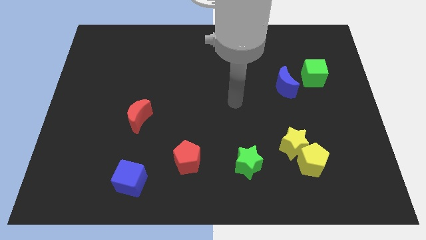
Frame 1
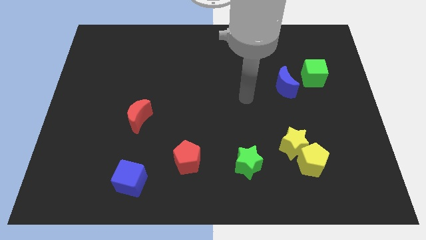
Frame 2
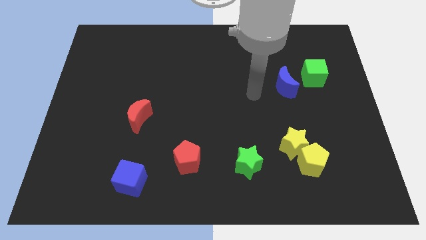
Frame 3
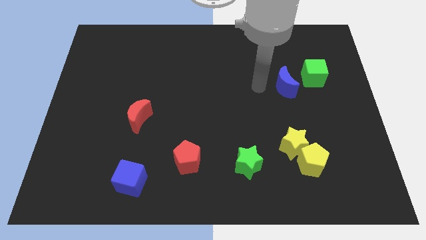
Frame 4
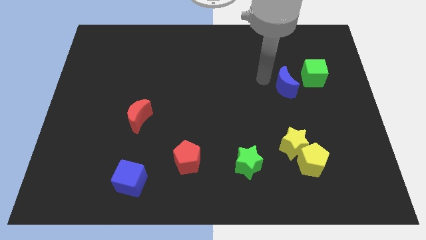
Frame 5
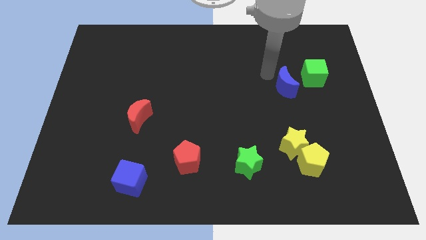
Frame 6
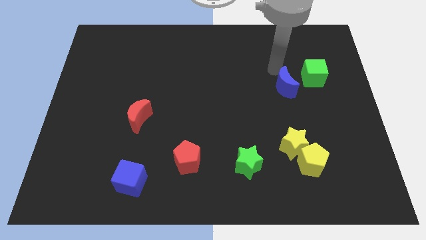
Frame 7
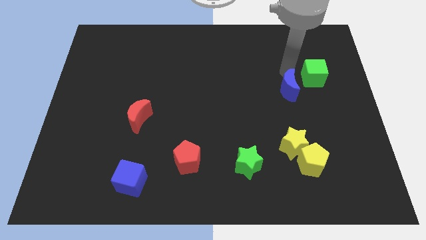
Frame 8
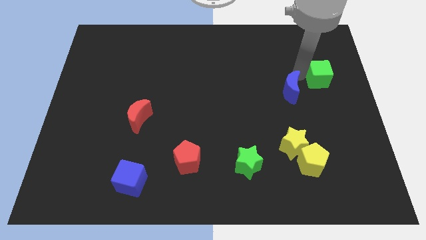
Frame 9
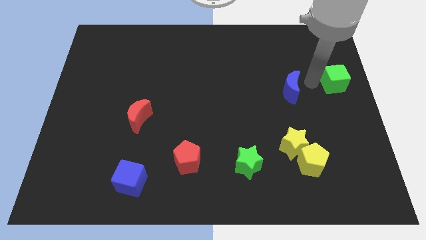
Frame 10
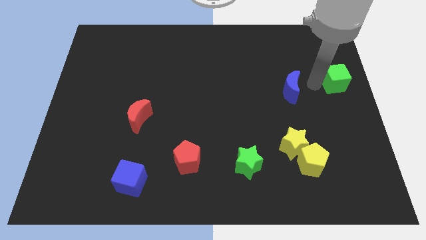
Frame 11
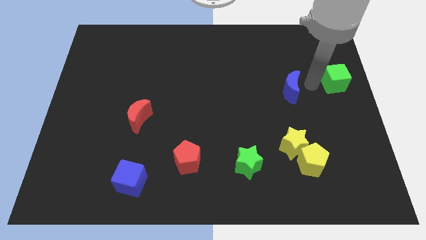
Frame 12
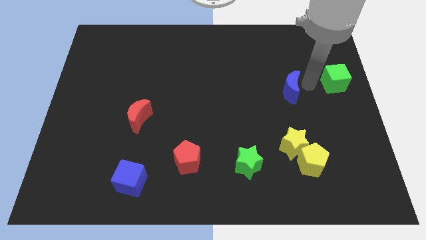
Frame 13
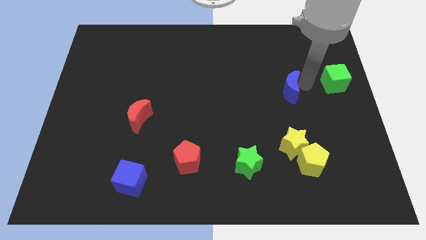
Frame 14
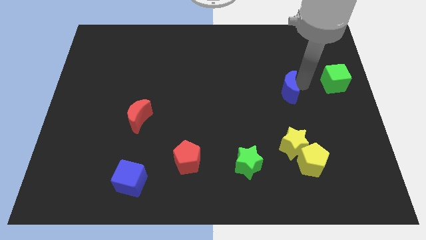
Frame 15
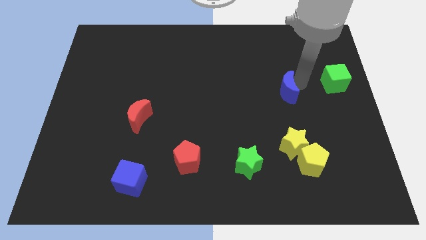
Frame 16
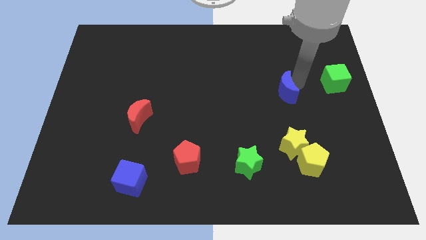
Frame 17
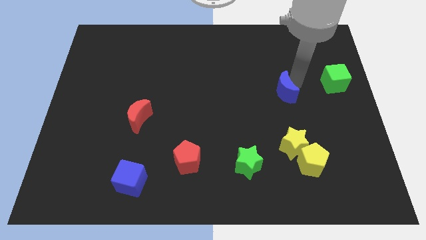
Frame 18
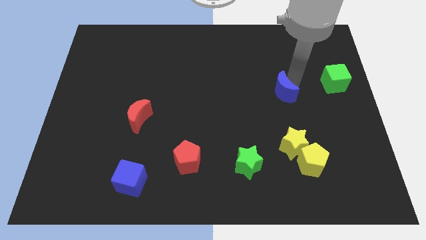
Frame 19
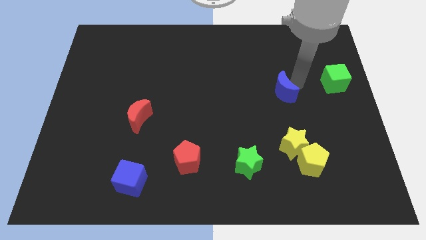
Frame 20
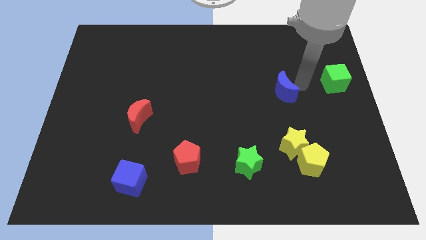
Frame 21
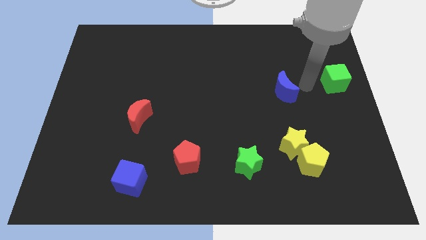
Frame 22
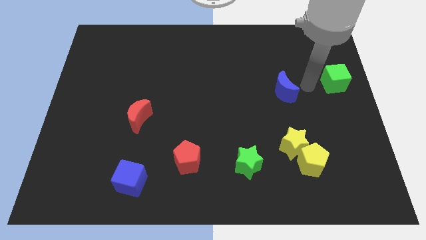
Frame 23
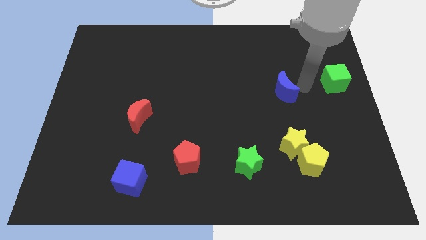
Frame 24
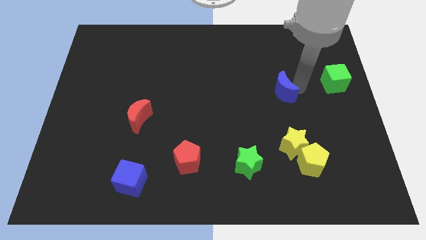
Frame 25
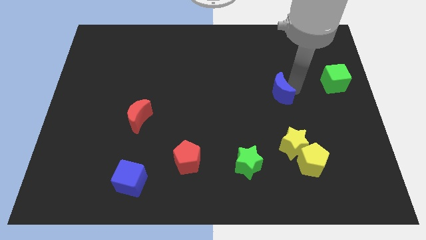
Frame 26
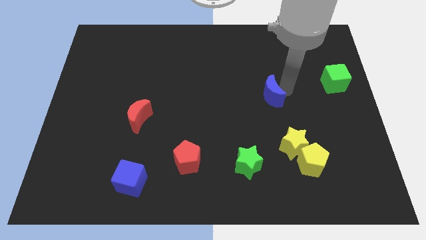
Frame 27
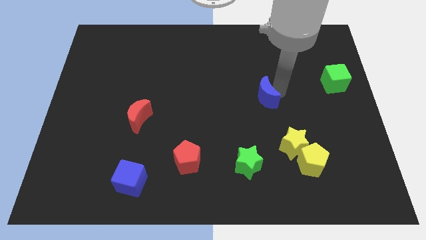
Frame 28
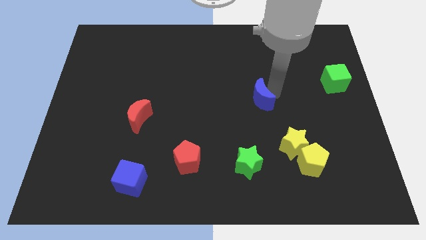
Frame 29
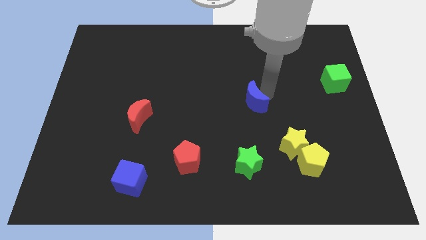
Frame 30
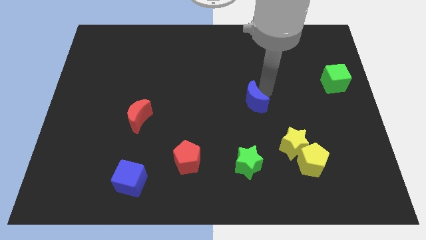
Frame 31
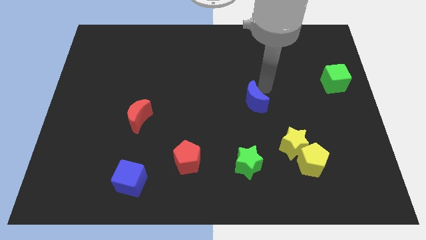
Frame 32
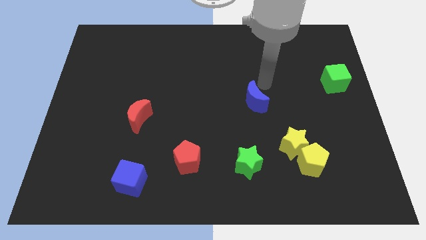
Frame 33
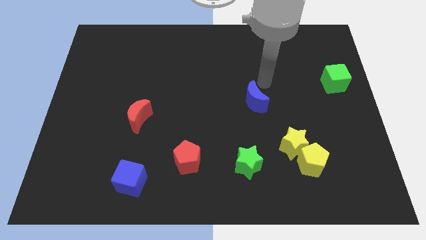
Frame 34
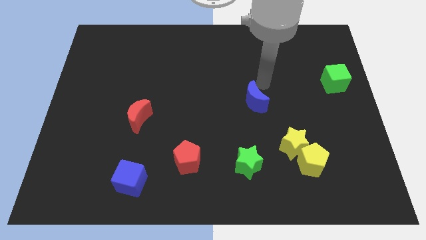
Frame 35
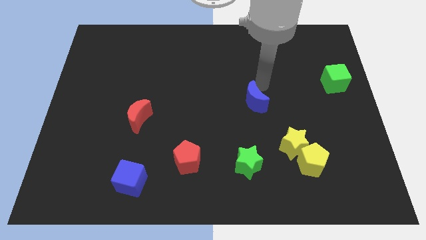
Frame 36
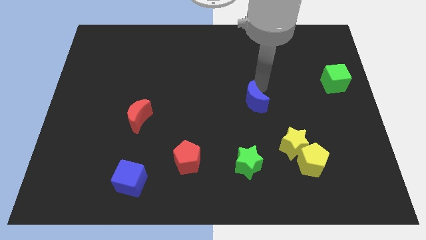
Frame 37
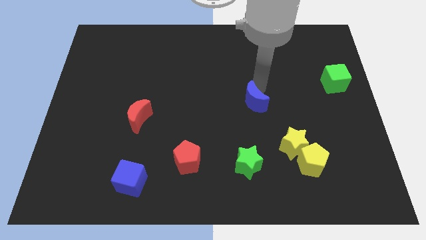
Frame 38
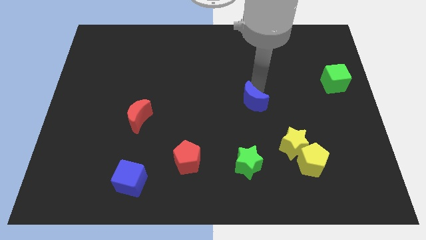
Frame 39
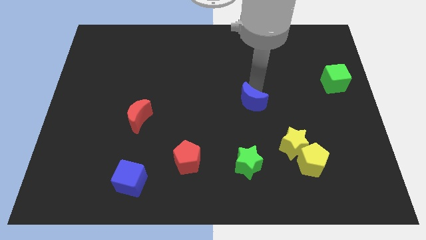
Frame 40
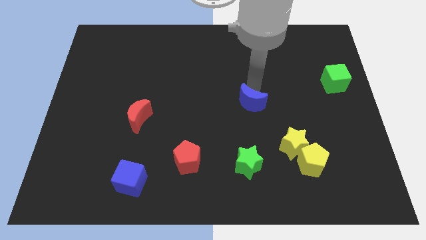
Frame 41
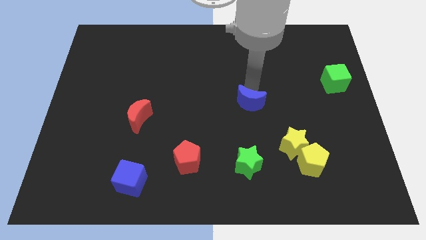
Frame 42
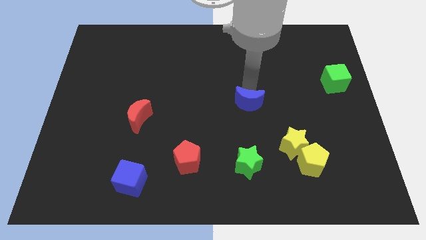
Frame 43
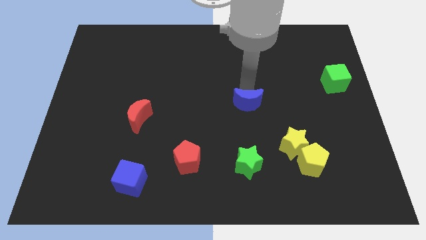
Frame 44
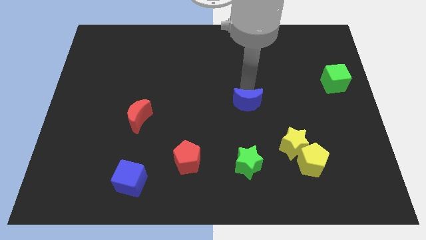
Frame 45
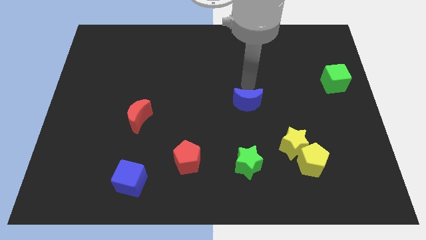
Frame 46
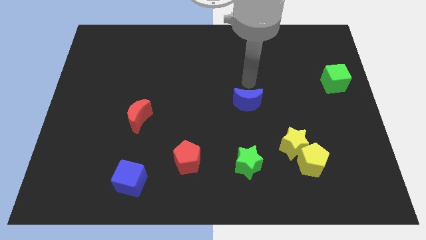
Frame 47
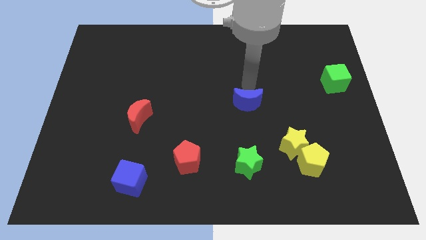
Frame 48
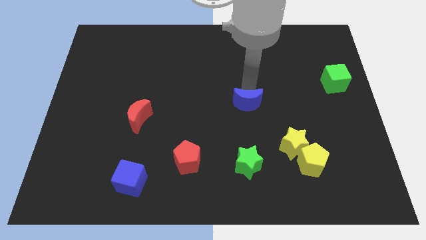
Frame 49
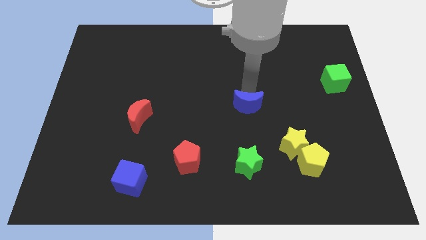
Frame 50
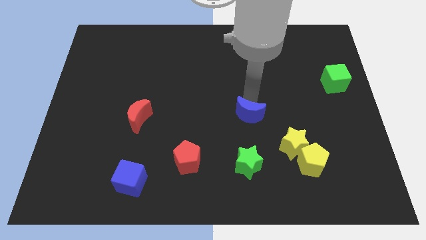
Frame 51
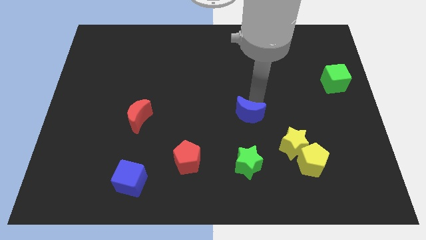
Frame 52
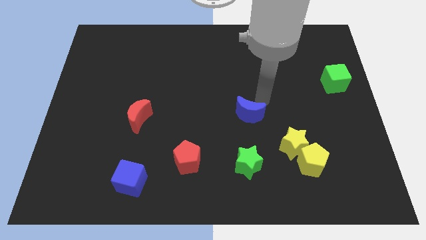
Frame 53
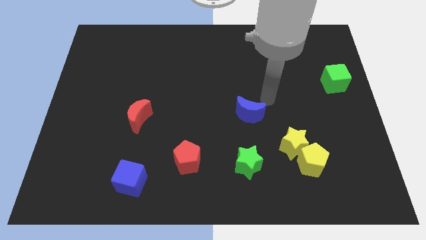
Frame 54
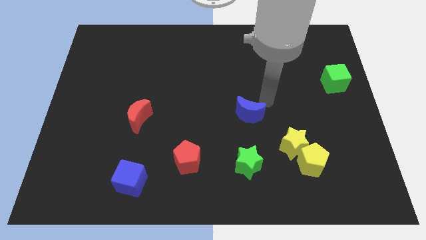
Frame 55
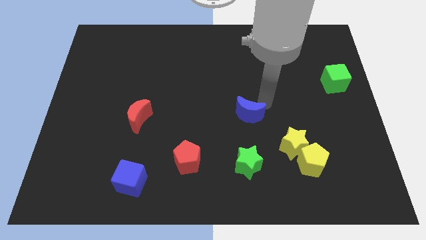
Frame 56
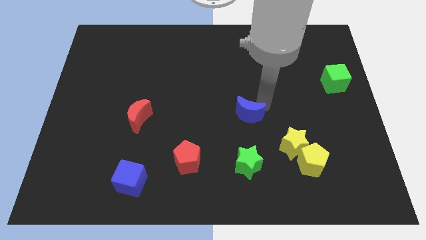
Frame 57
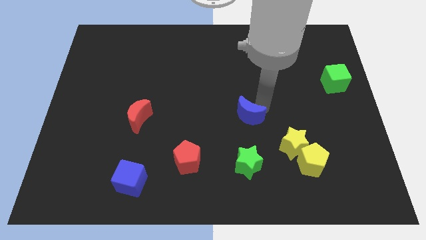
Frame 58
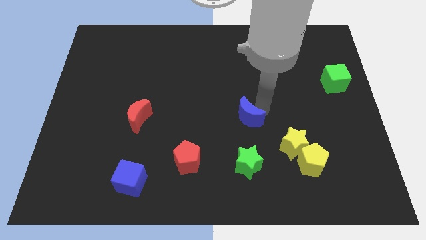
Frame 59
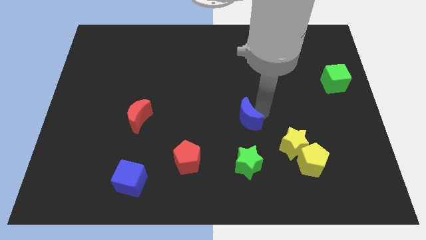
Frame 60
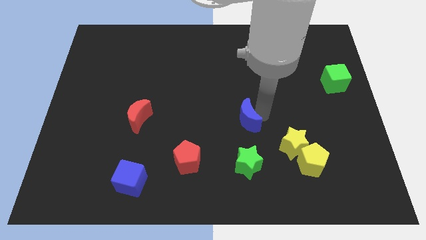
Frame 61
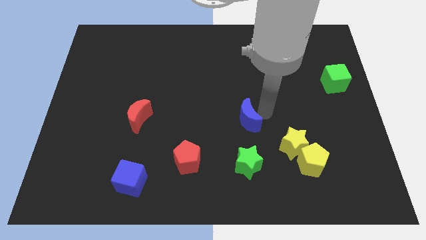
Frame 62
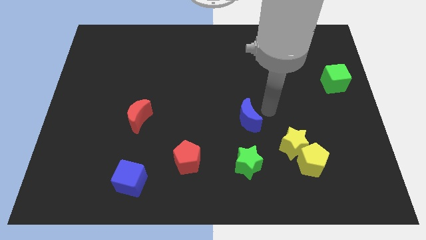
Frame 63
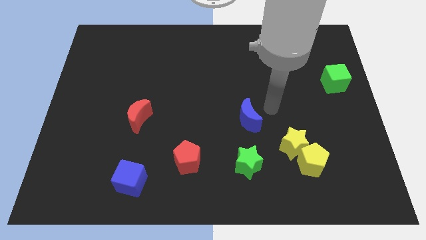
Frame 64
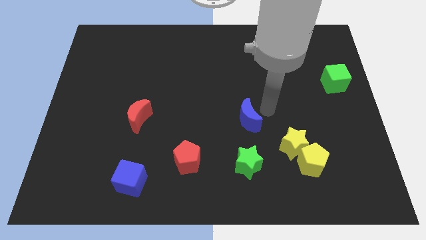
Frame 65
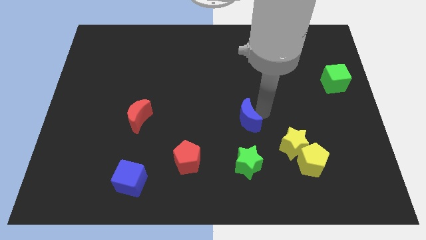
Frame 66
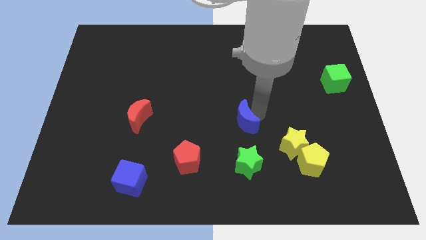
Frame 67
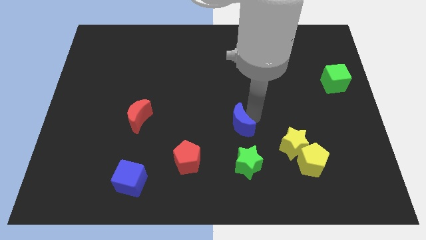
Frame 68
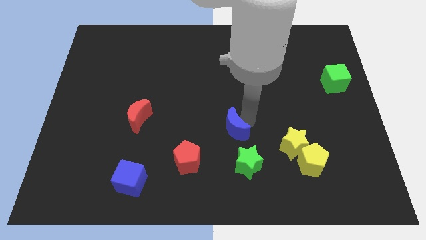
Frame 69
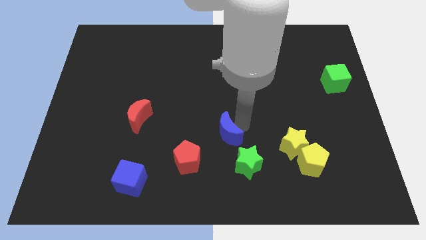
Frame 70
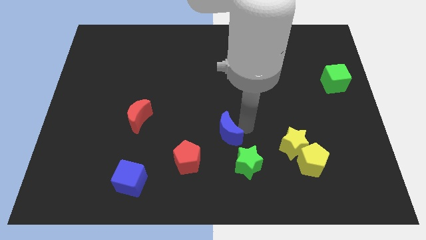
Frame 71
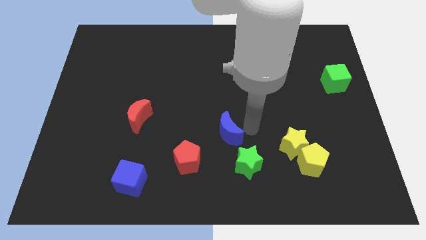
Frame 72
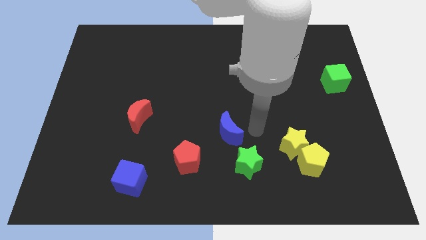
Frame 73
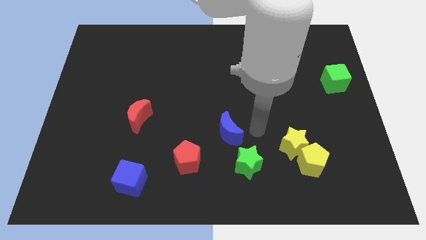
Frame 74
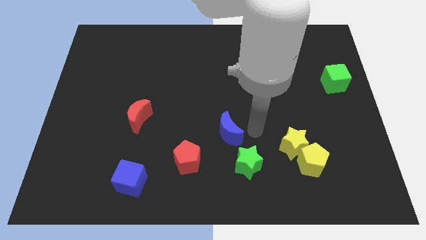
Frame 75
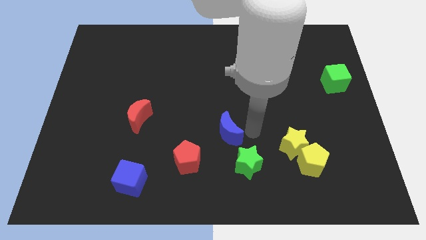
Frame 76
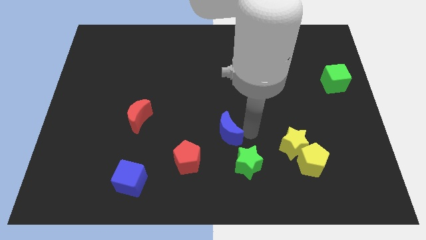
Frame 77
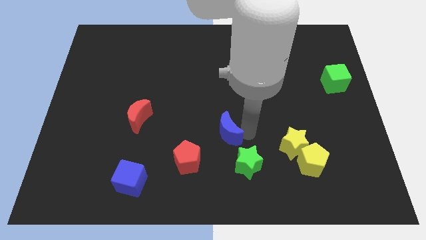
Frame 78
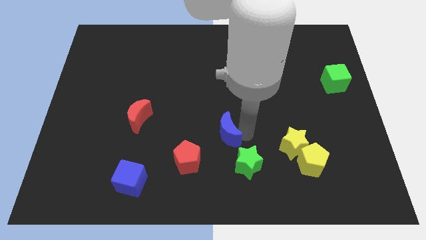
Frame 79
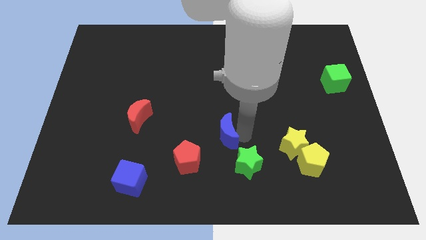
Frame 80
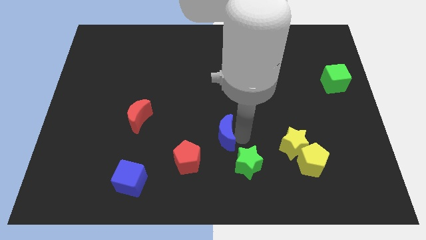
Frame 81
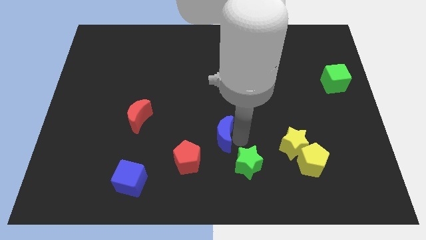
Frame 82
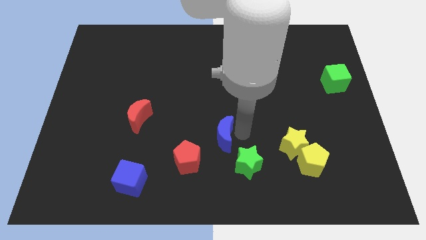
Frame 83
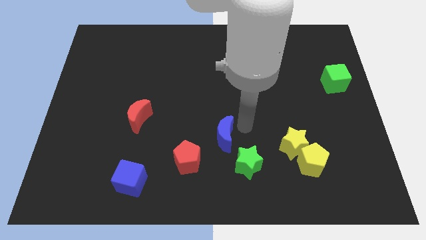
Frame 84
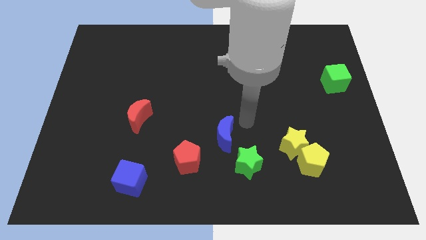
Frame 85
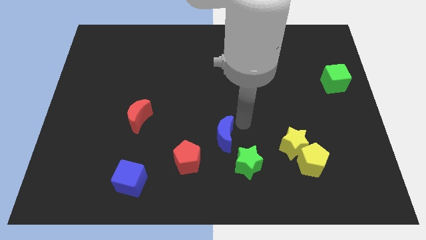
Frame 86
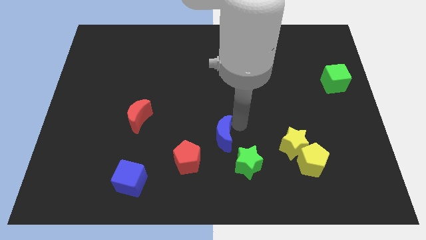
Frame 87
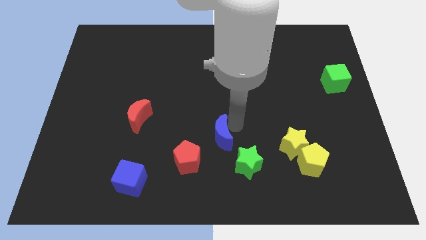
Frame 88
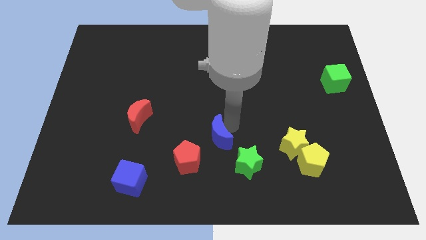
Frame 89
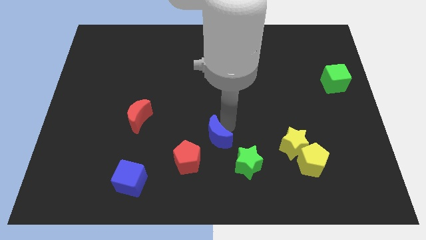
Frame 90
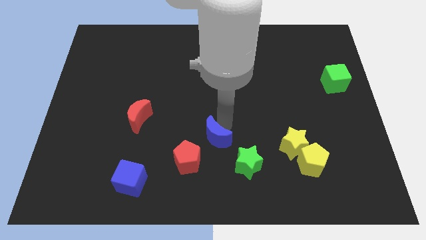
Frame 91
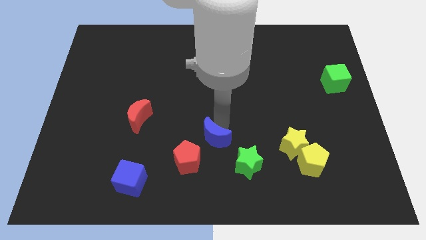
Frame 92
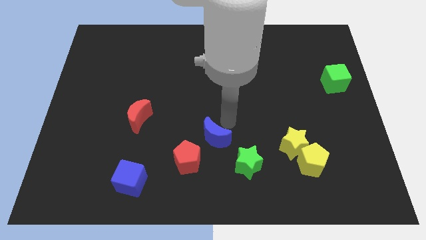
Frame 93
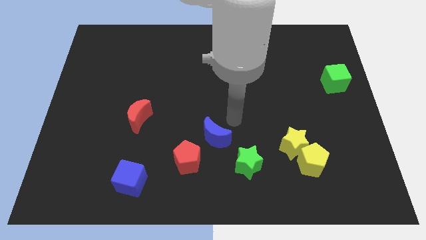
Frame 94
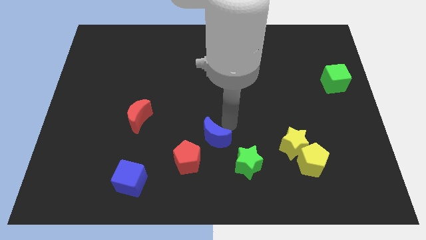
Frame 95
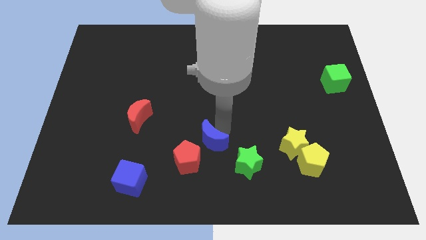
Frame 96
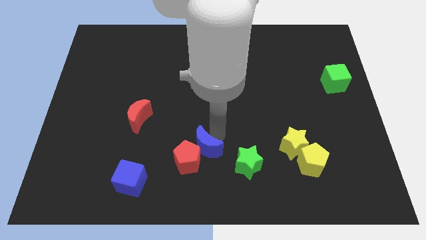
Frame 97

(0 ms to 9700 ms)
slide the blue moon close to the red pentagon
